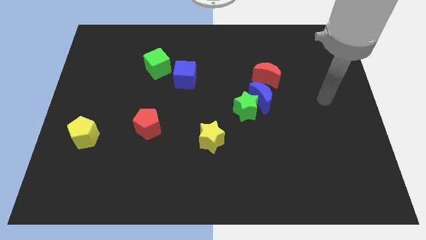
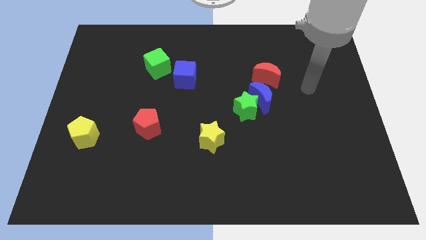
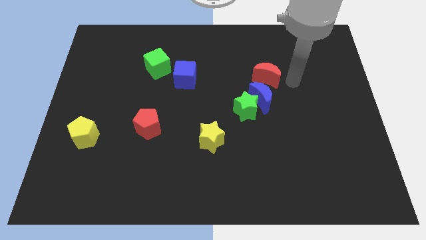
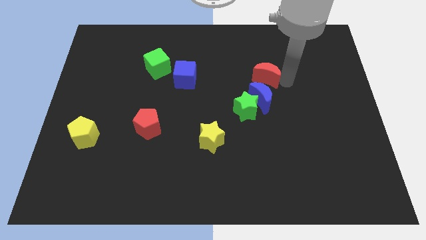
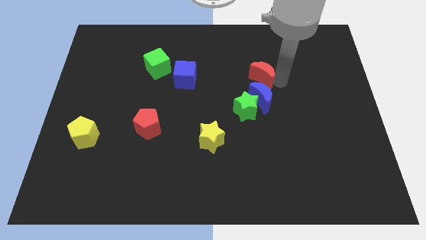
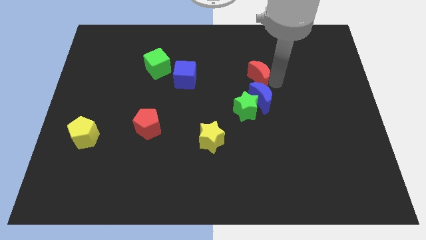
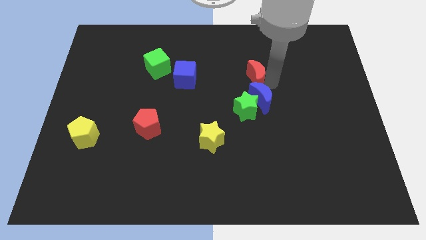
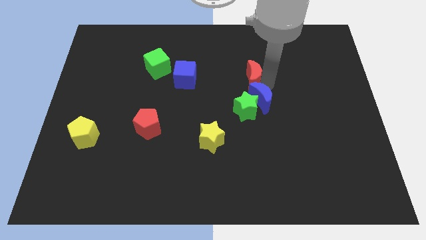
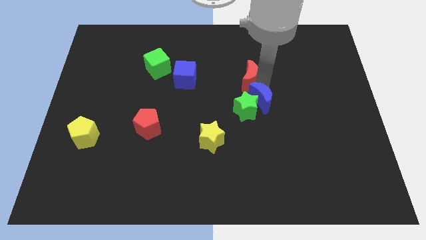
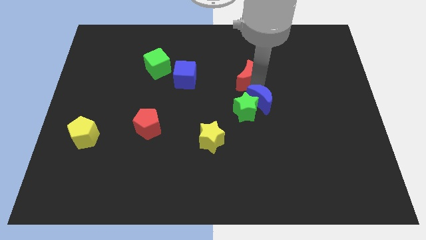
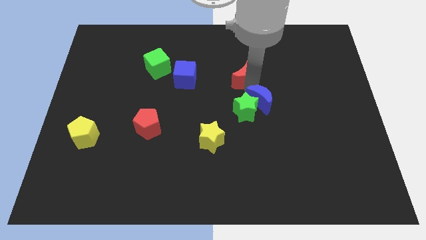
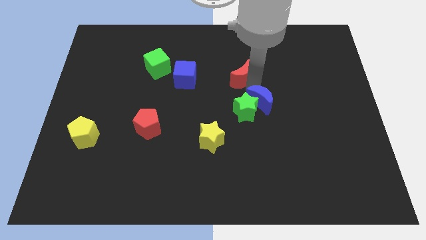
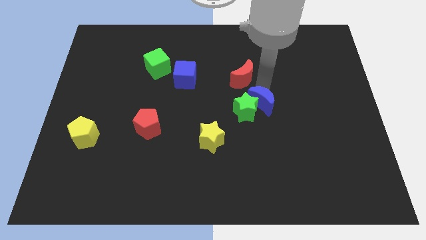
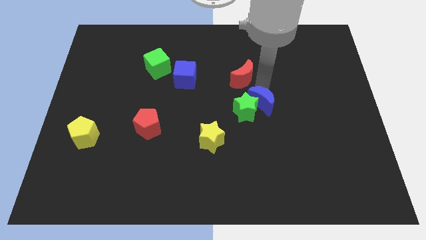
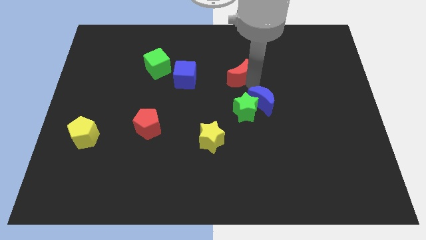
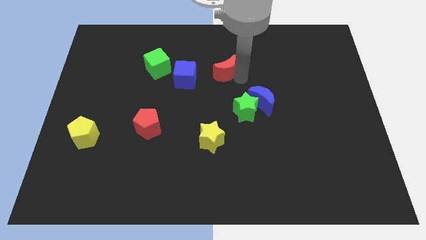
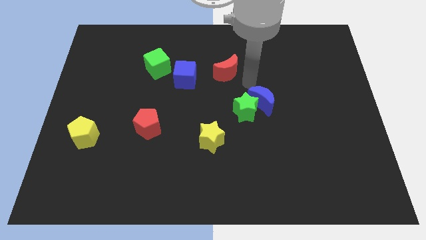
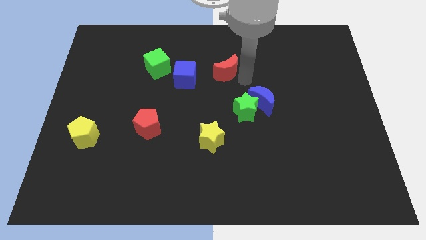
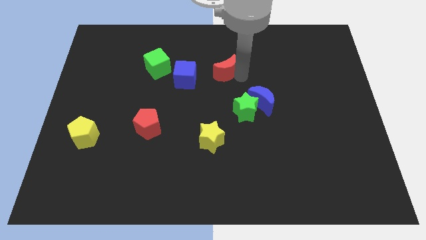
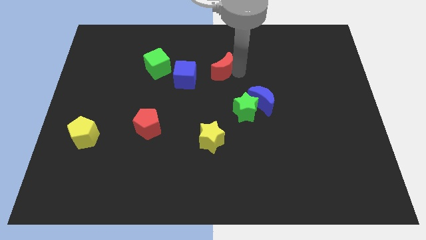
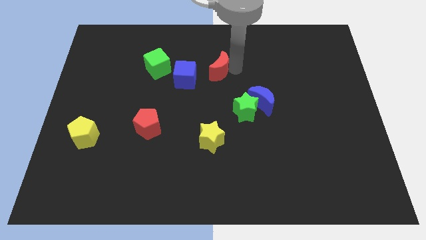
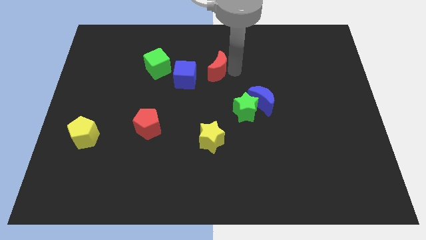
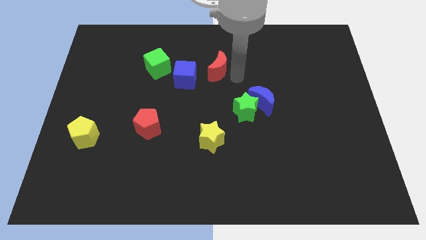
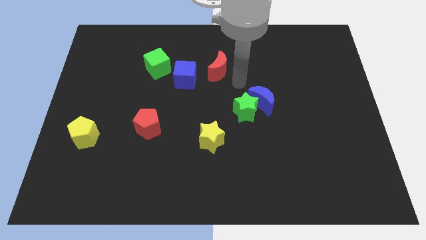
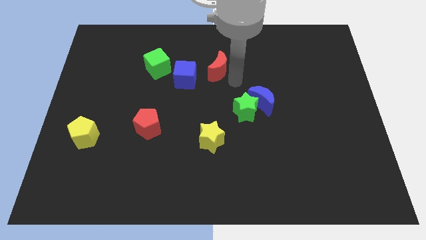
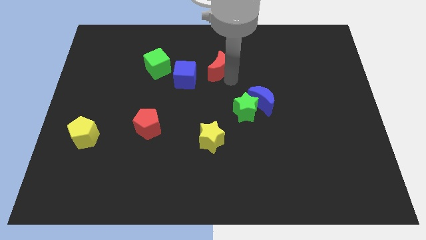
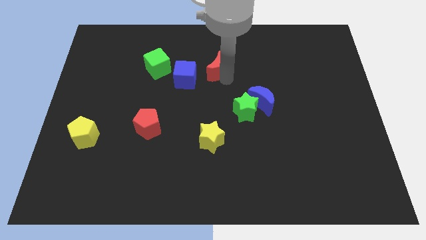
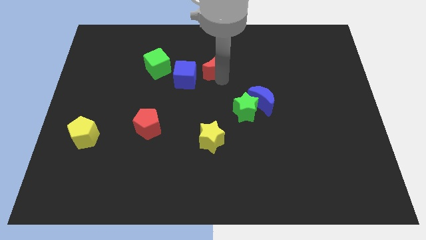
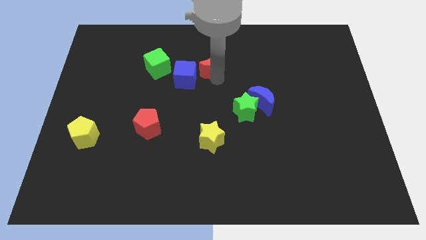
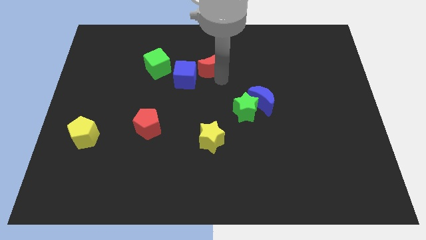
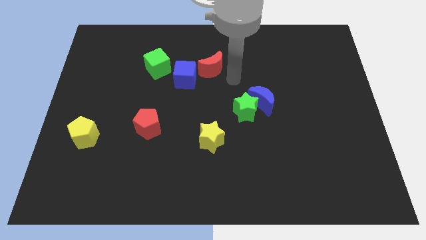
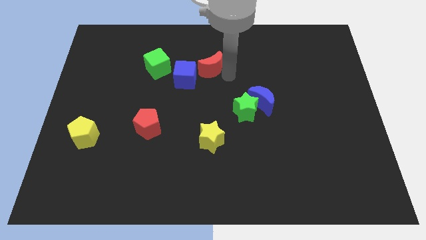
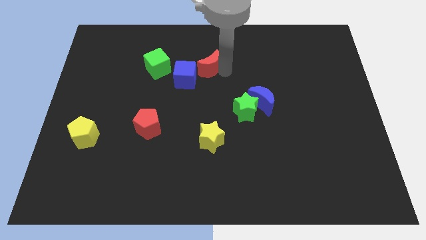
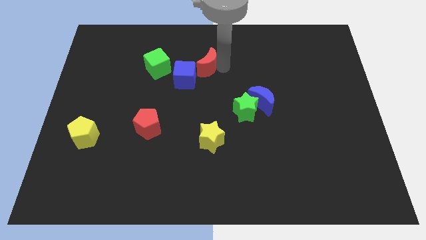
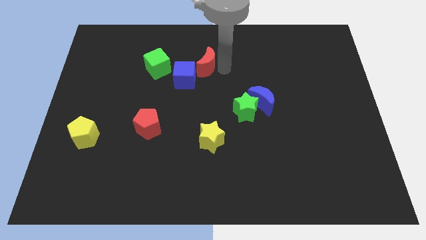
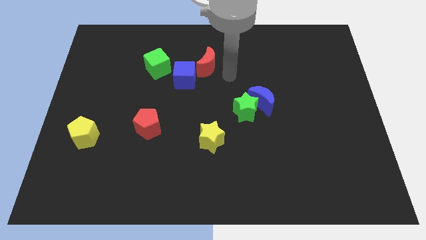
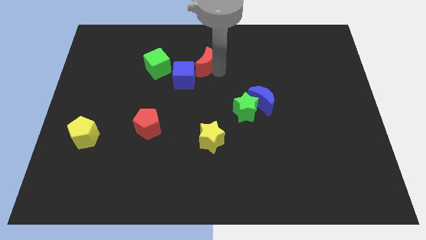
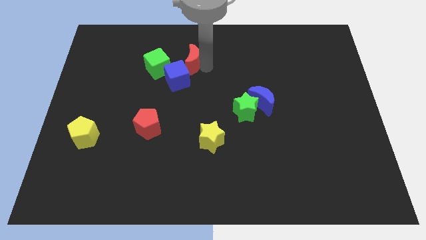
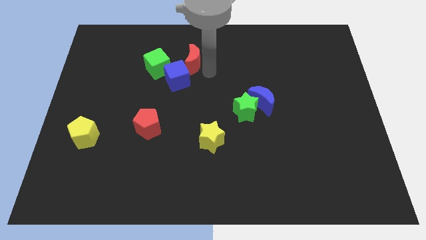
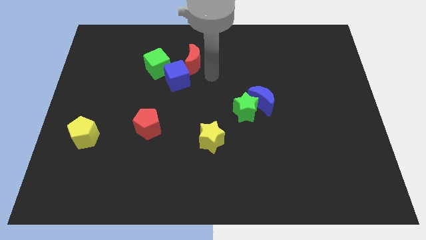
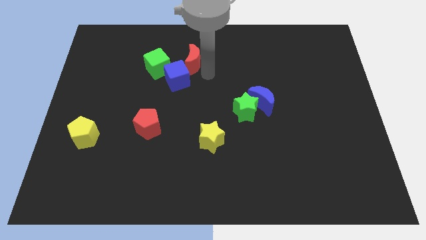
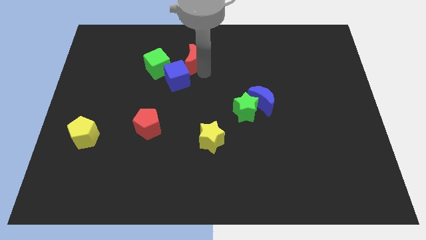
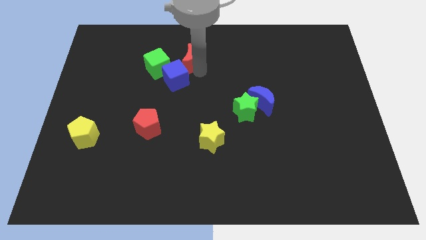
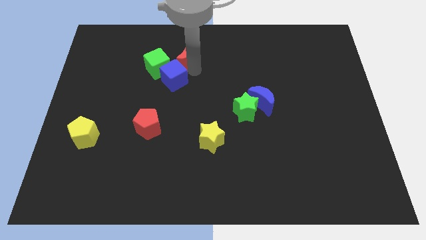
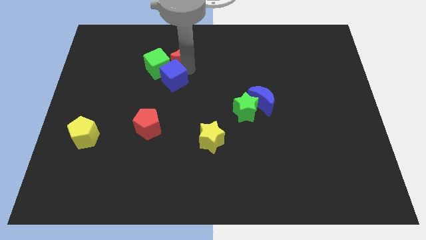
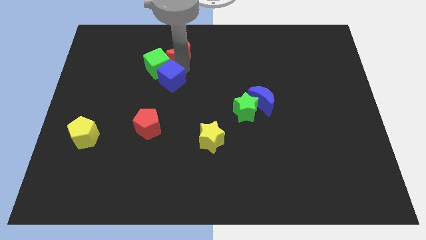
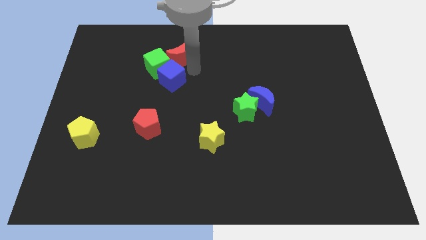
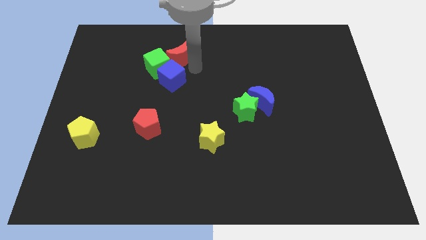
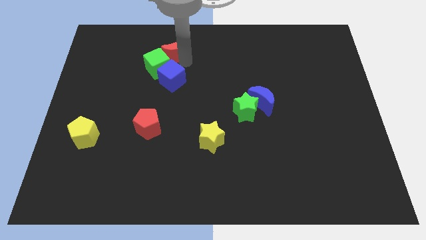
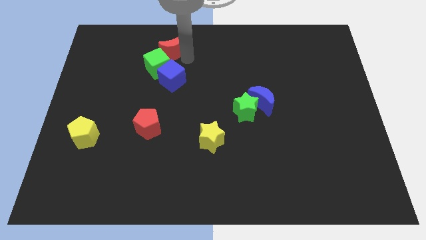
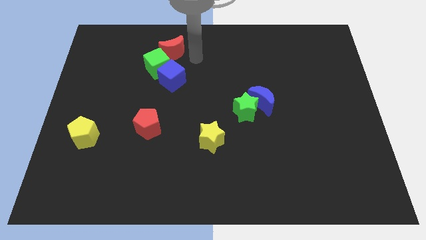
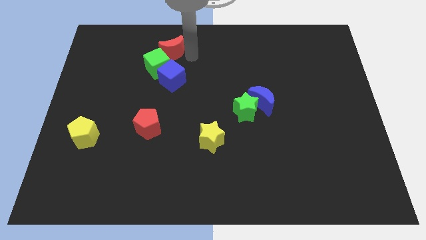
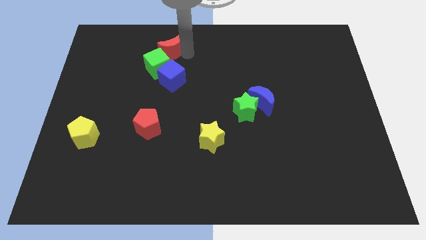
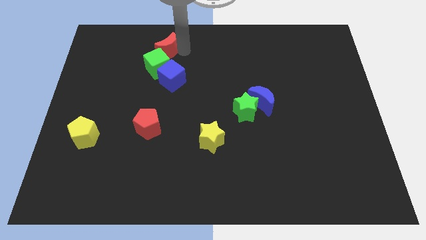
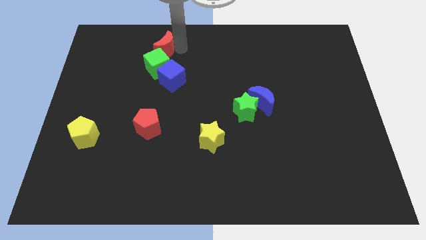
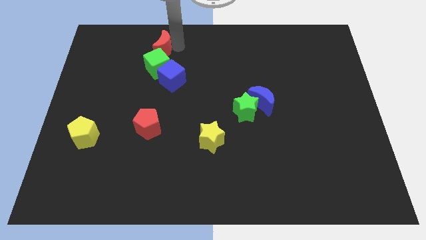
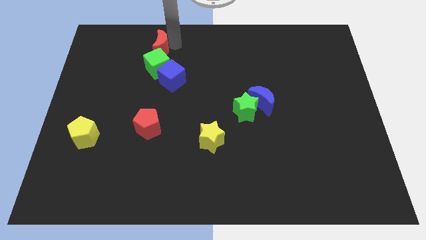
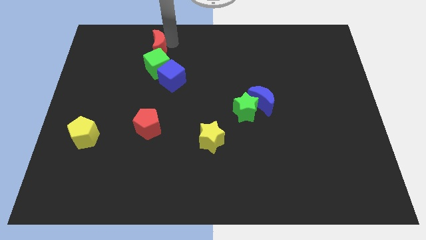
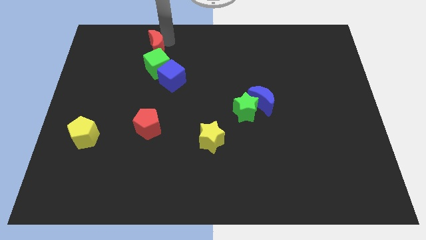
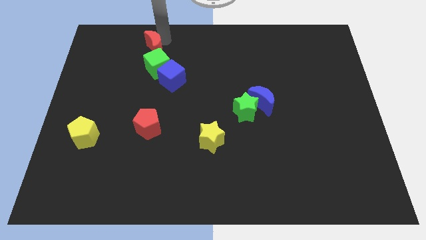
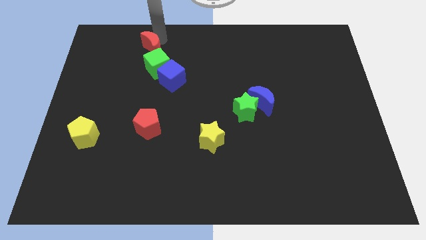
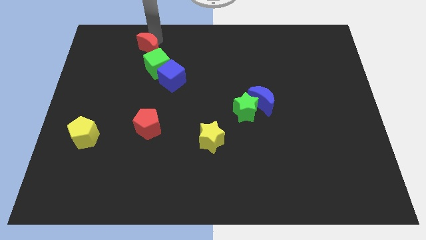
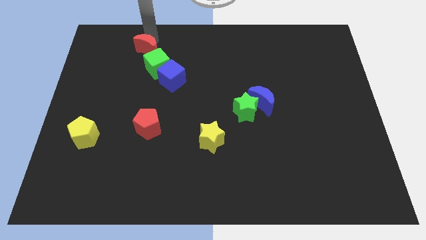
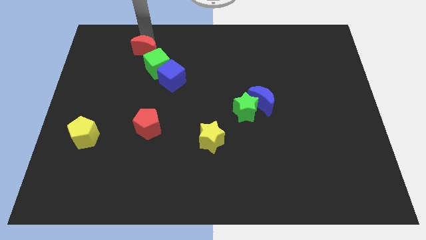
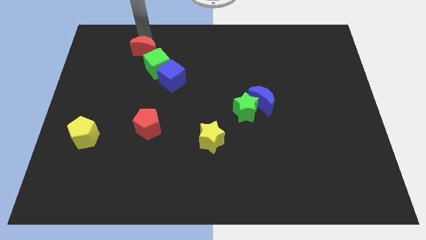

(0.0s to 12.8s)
slide the red moon to the top left of the blue cube
